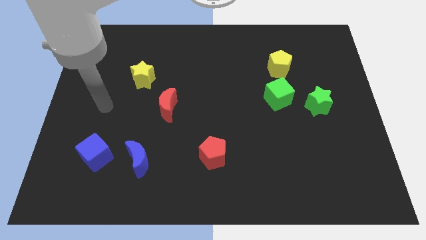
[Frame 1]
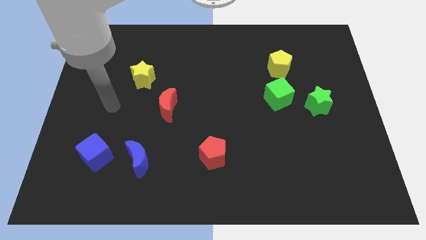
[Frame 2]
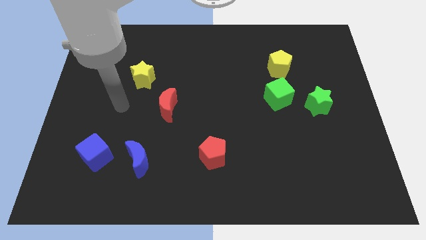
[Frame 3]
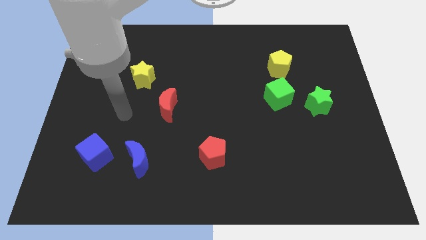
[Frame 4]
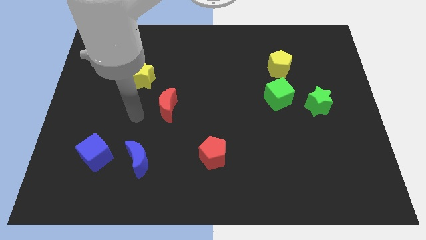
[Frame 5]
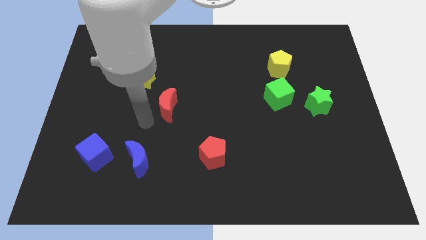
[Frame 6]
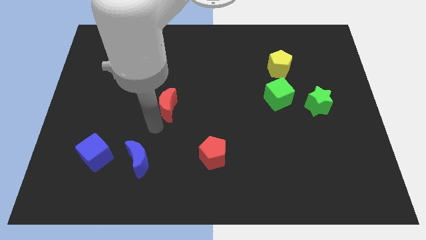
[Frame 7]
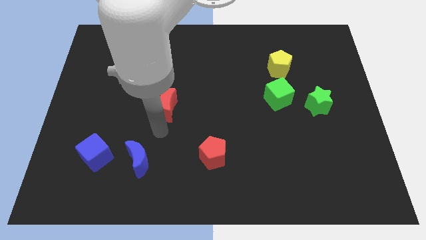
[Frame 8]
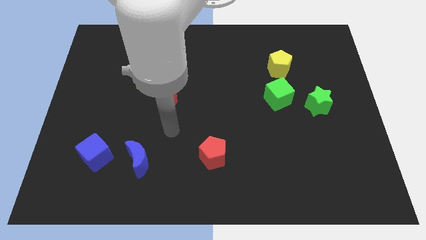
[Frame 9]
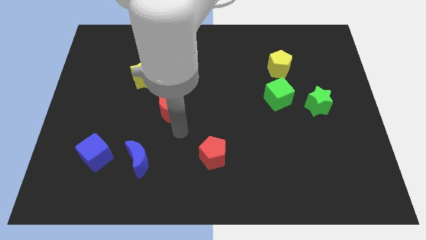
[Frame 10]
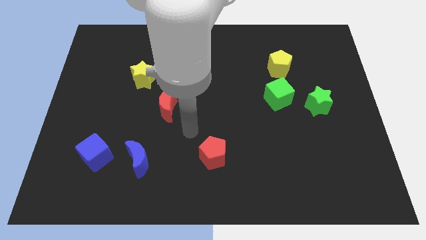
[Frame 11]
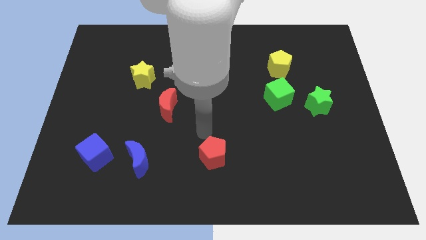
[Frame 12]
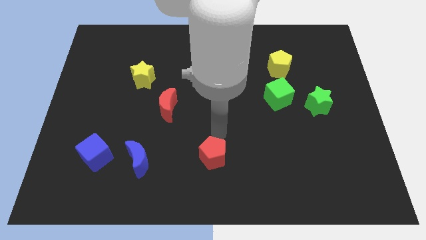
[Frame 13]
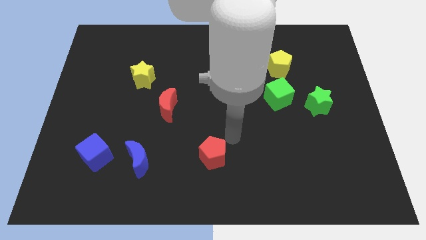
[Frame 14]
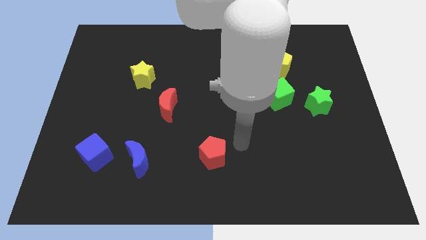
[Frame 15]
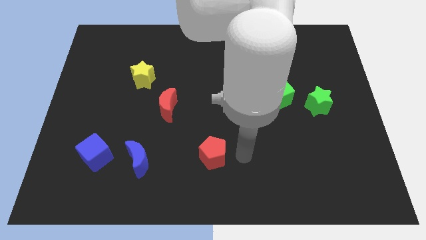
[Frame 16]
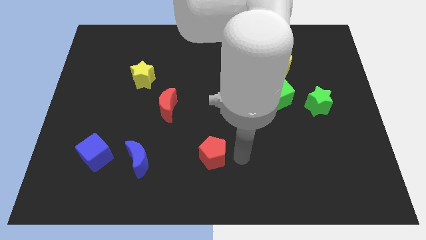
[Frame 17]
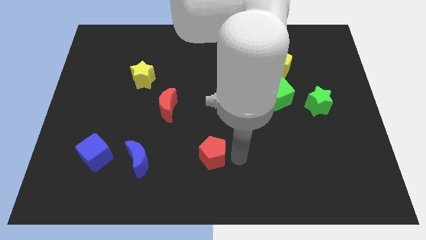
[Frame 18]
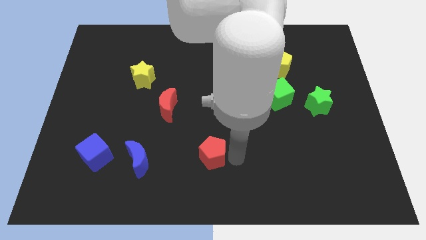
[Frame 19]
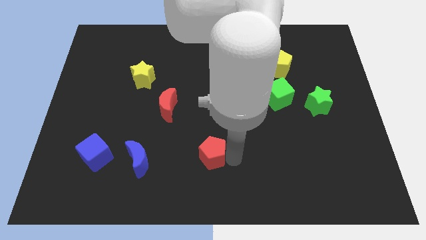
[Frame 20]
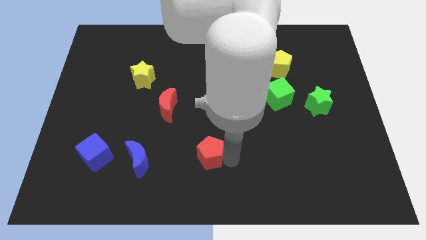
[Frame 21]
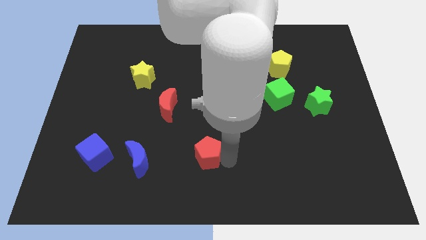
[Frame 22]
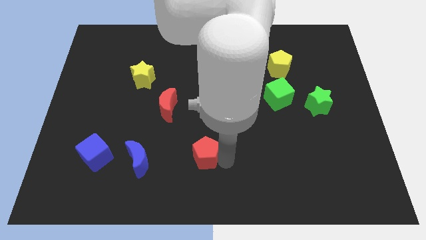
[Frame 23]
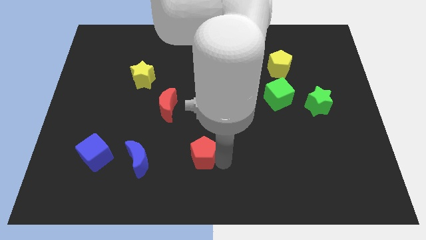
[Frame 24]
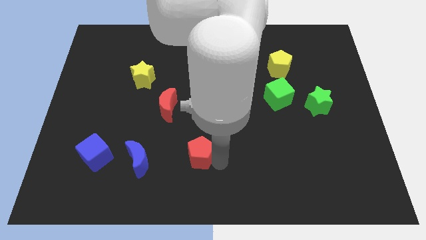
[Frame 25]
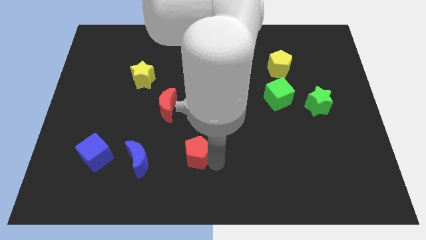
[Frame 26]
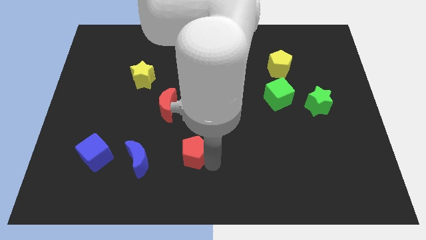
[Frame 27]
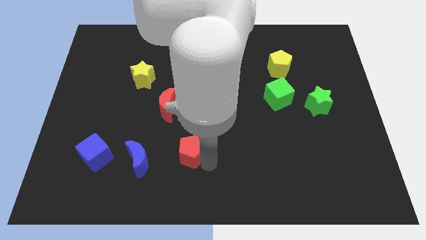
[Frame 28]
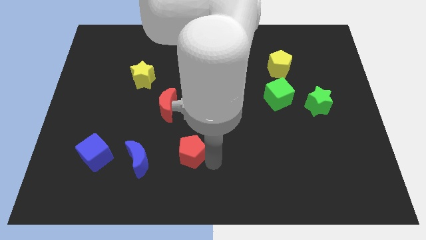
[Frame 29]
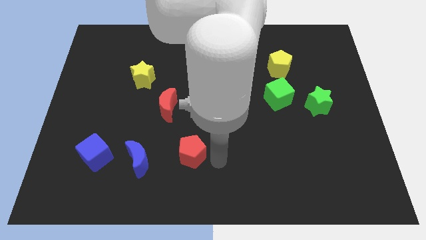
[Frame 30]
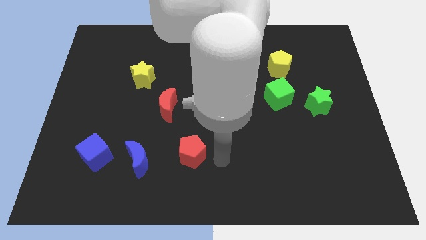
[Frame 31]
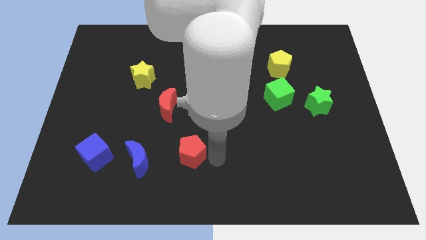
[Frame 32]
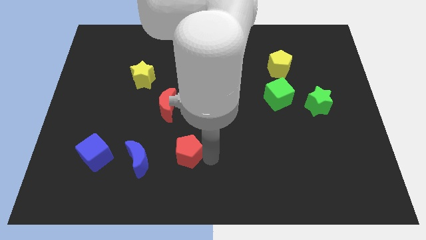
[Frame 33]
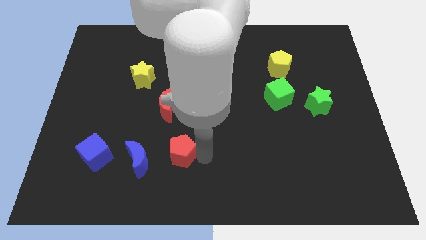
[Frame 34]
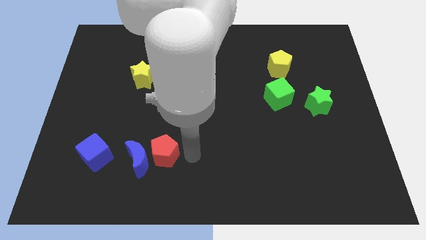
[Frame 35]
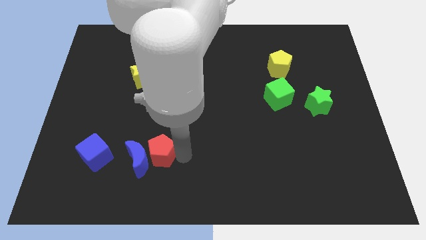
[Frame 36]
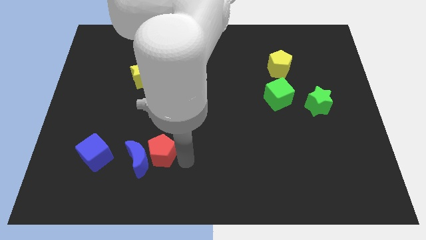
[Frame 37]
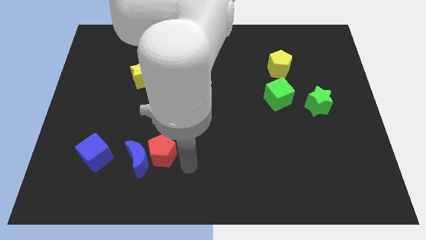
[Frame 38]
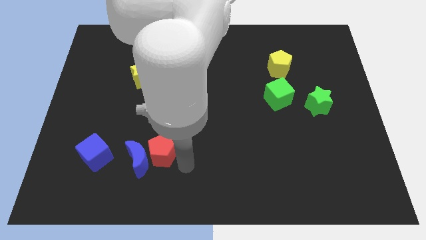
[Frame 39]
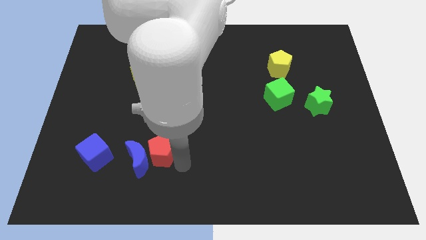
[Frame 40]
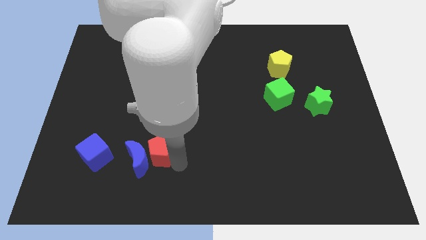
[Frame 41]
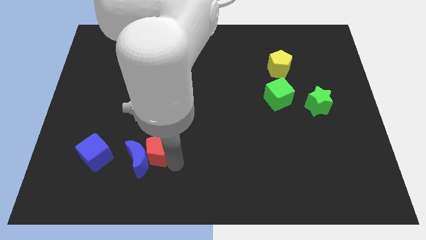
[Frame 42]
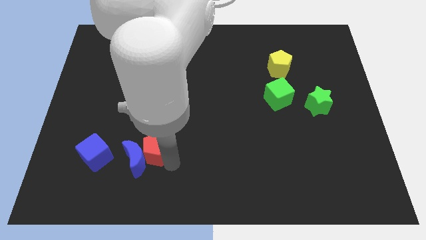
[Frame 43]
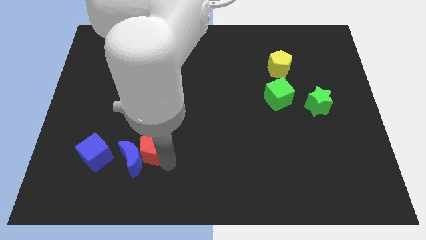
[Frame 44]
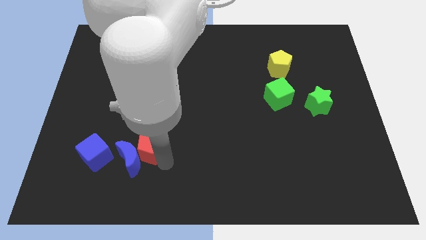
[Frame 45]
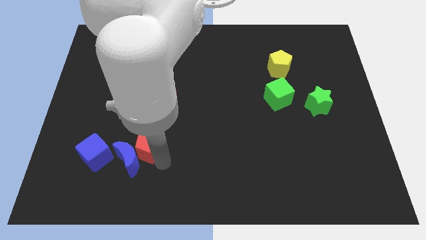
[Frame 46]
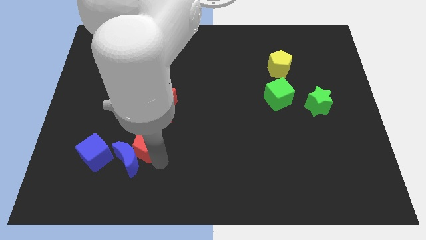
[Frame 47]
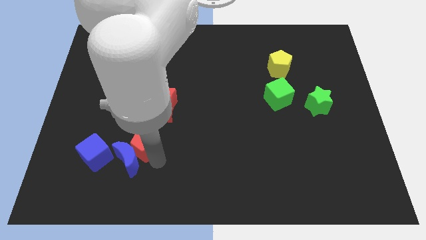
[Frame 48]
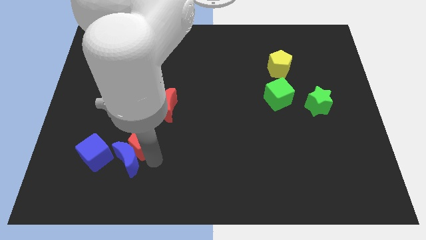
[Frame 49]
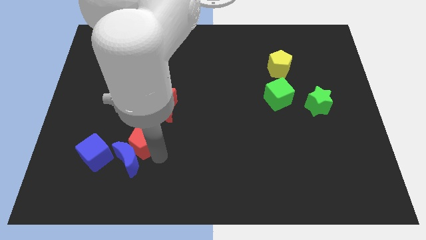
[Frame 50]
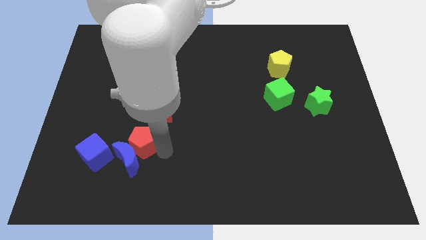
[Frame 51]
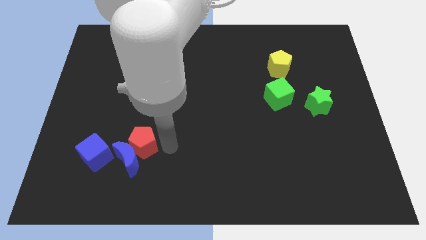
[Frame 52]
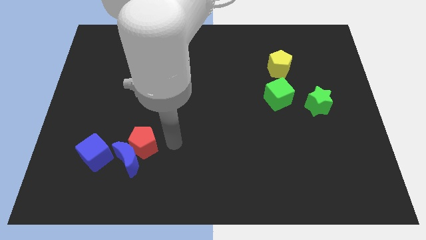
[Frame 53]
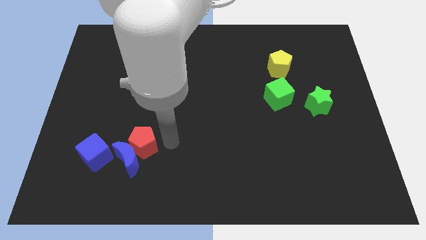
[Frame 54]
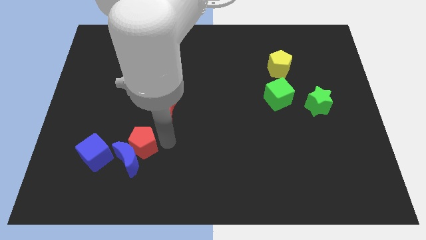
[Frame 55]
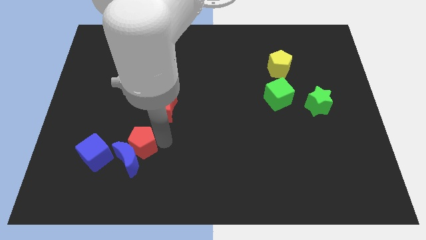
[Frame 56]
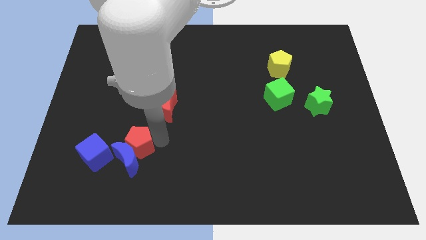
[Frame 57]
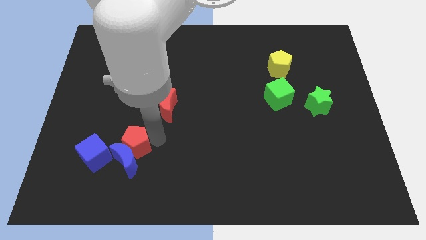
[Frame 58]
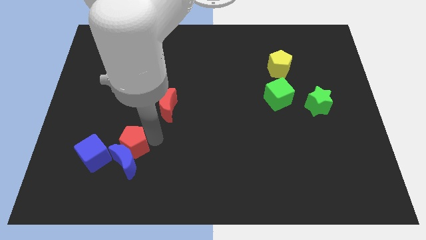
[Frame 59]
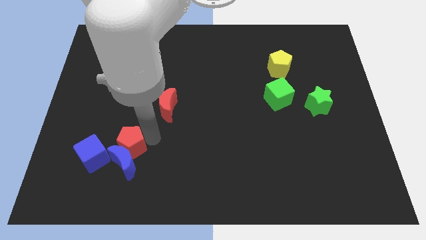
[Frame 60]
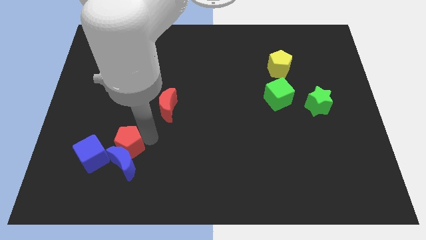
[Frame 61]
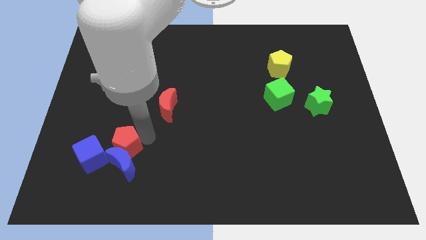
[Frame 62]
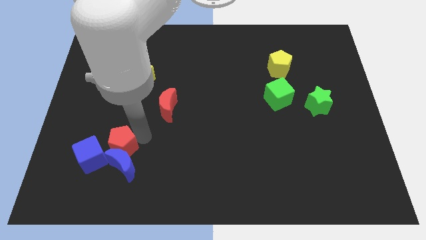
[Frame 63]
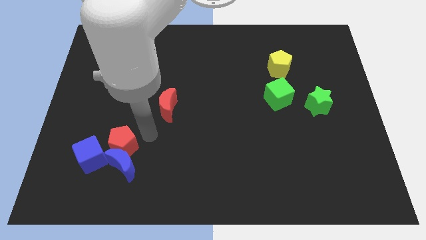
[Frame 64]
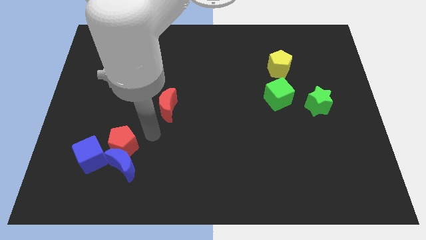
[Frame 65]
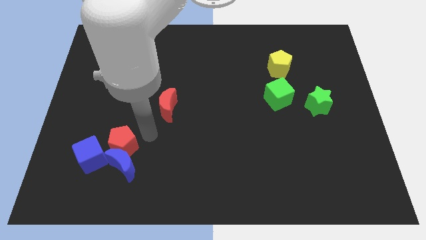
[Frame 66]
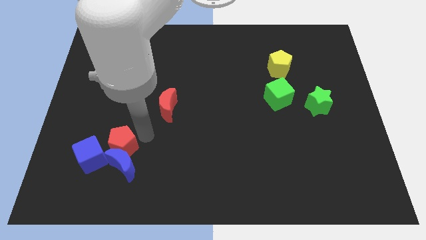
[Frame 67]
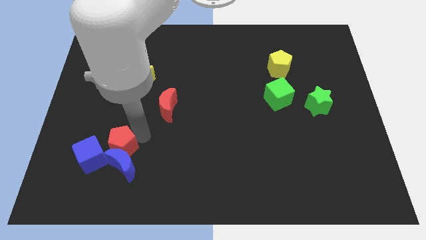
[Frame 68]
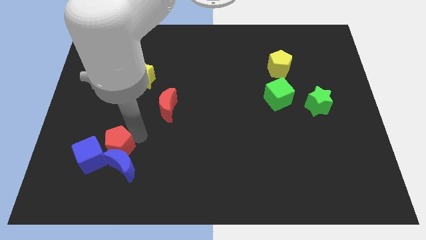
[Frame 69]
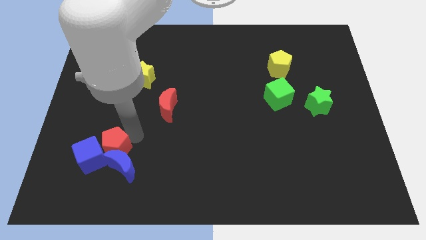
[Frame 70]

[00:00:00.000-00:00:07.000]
push the red pentagon close to the blue cube

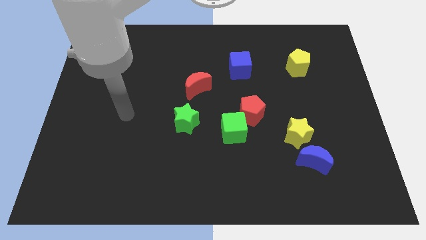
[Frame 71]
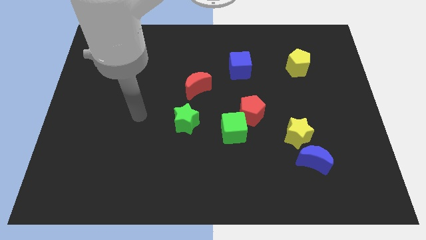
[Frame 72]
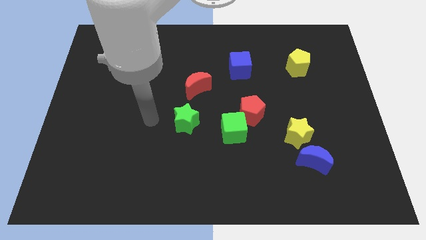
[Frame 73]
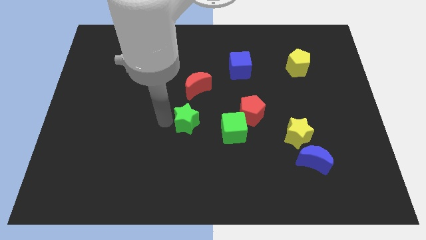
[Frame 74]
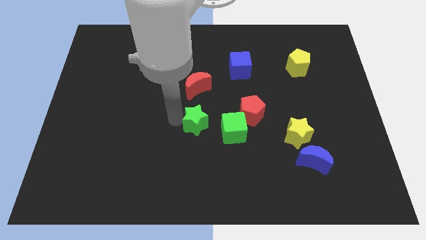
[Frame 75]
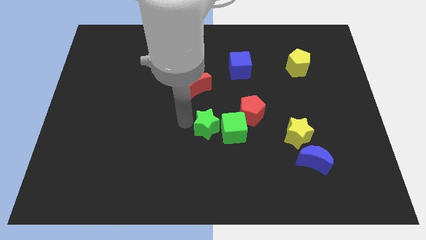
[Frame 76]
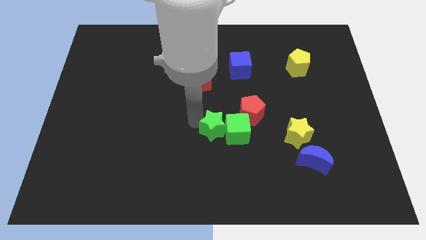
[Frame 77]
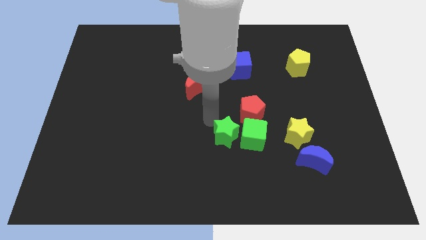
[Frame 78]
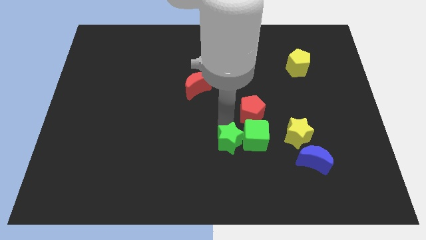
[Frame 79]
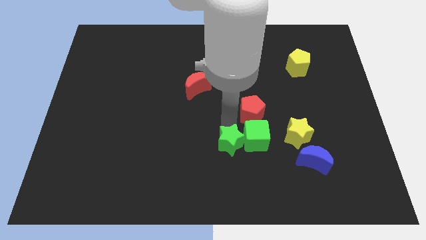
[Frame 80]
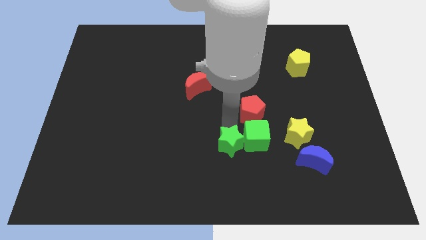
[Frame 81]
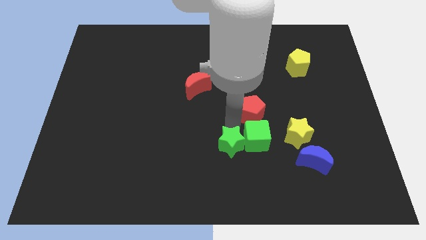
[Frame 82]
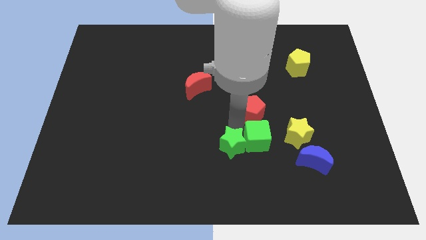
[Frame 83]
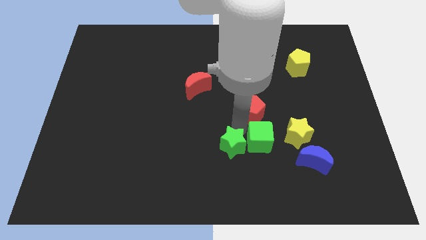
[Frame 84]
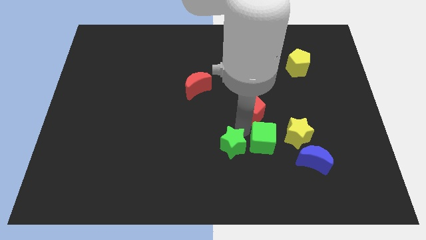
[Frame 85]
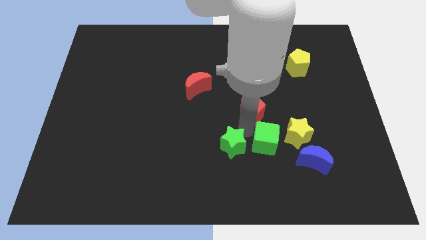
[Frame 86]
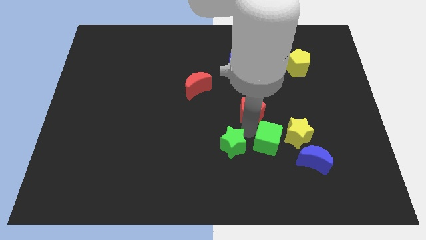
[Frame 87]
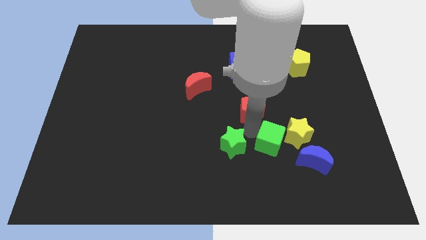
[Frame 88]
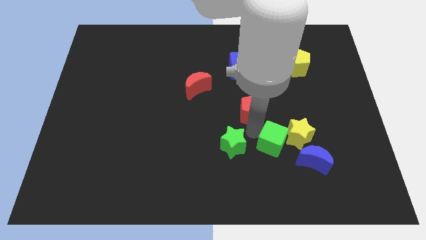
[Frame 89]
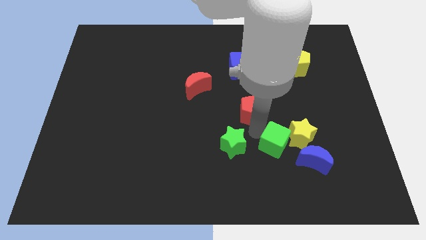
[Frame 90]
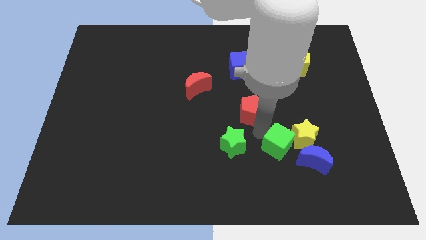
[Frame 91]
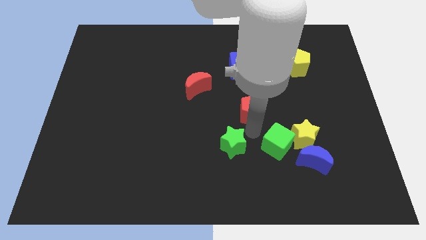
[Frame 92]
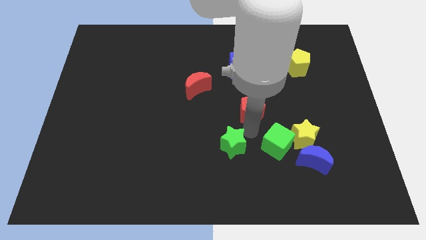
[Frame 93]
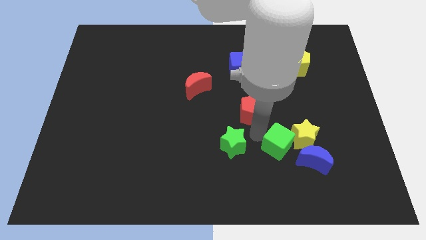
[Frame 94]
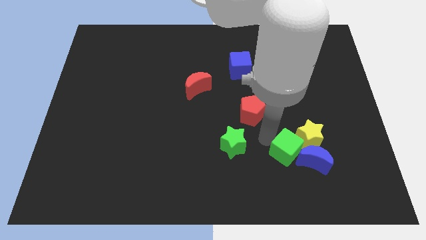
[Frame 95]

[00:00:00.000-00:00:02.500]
move the green cube towards the blue moon
